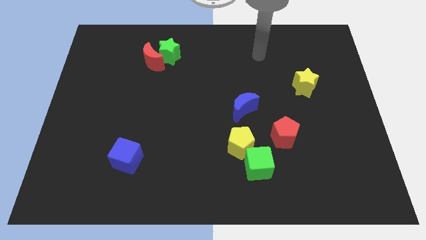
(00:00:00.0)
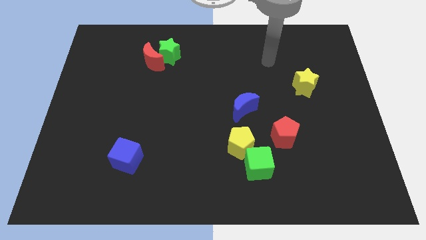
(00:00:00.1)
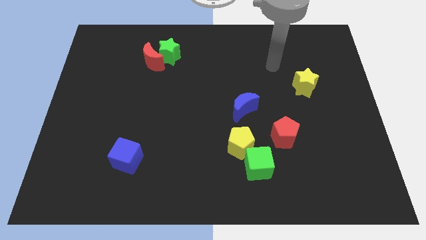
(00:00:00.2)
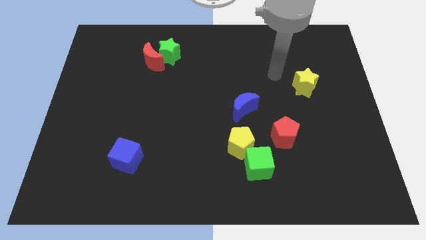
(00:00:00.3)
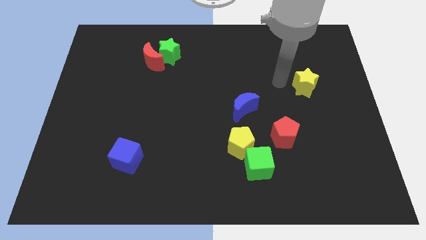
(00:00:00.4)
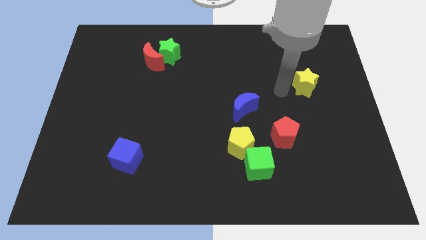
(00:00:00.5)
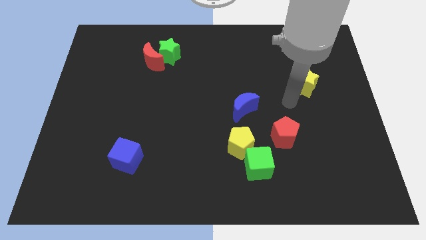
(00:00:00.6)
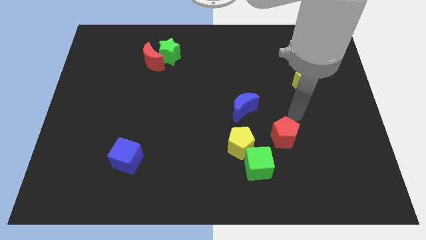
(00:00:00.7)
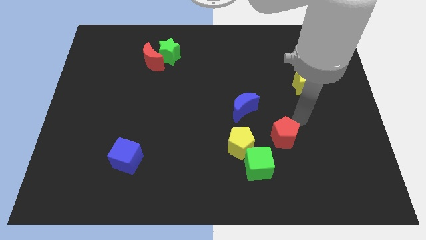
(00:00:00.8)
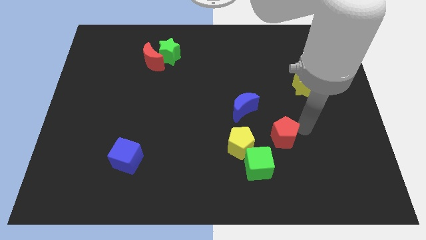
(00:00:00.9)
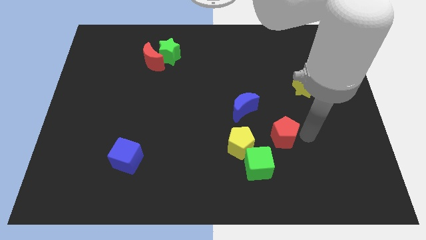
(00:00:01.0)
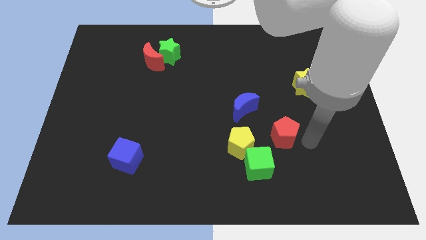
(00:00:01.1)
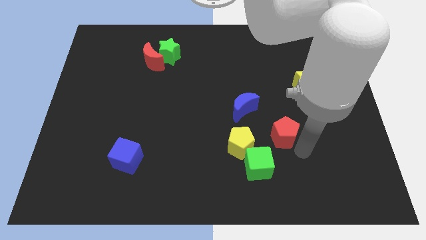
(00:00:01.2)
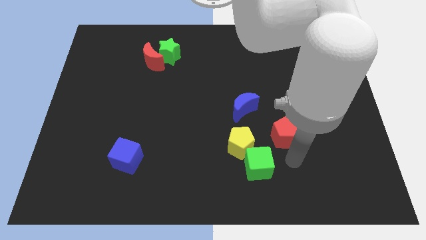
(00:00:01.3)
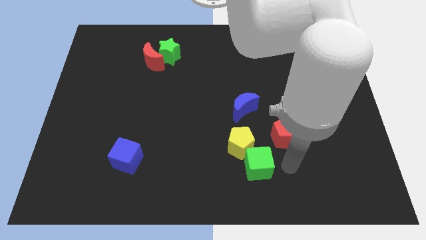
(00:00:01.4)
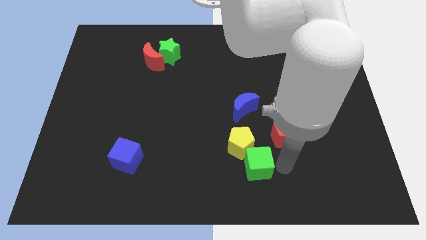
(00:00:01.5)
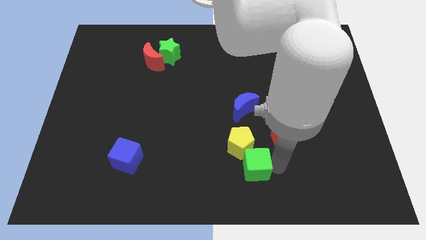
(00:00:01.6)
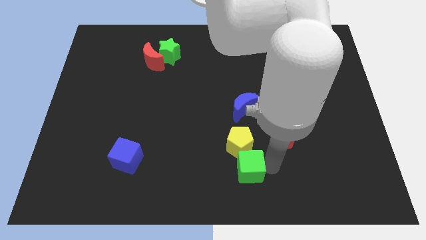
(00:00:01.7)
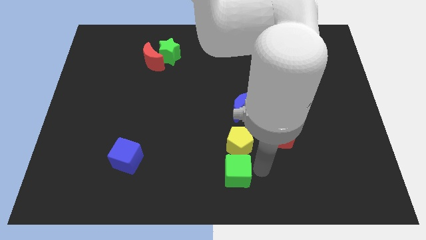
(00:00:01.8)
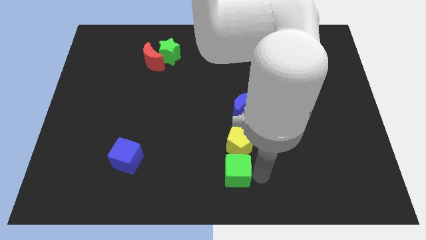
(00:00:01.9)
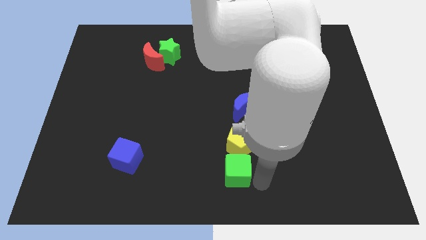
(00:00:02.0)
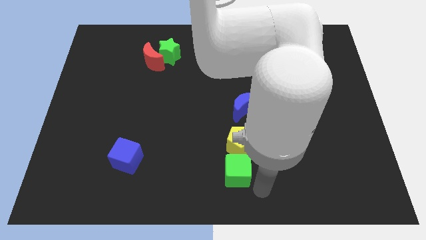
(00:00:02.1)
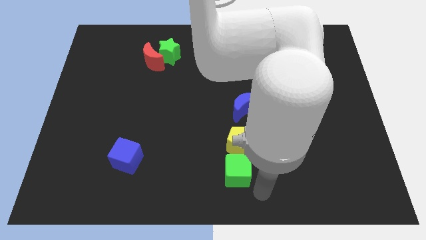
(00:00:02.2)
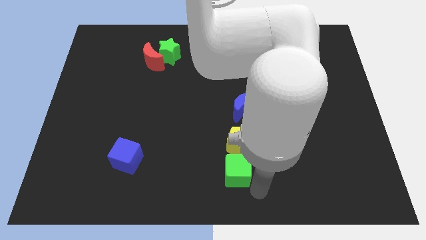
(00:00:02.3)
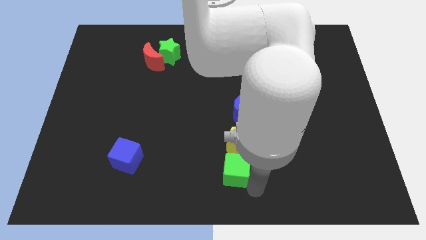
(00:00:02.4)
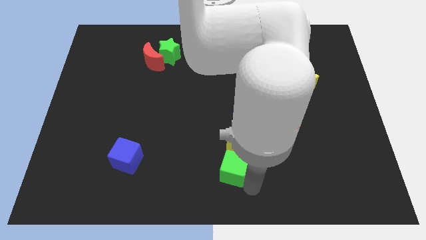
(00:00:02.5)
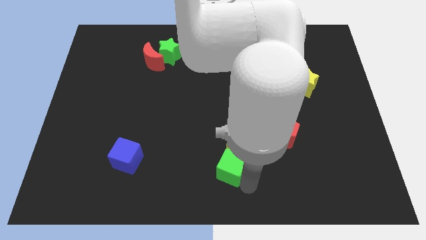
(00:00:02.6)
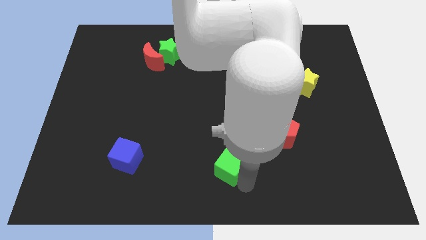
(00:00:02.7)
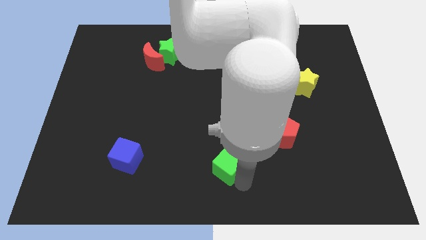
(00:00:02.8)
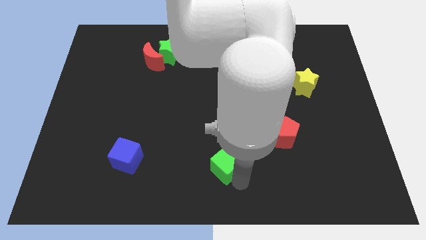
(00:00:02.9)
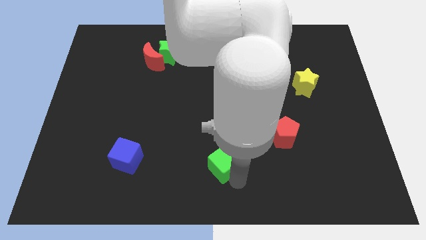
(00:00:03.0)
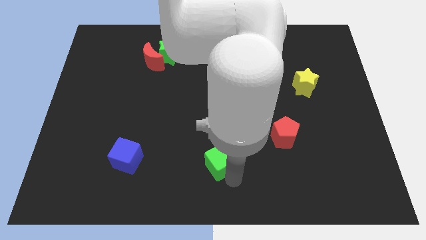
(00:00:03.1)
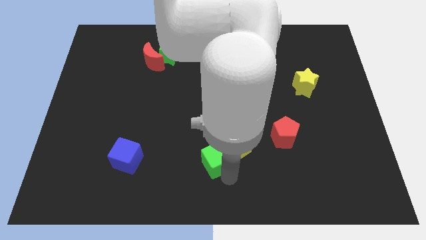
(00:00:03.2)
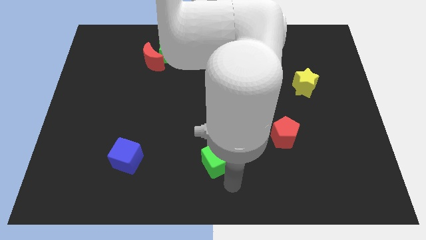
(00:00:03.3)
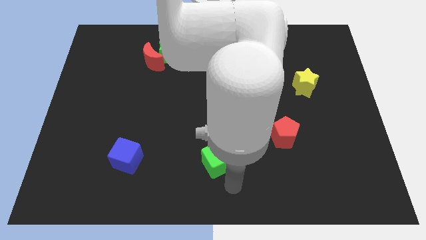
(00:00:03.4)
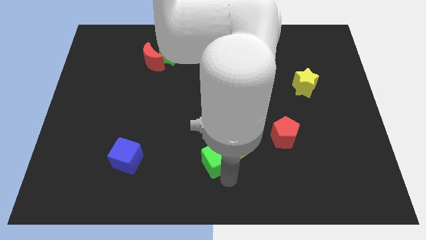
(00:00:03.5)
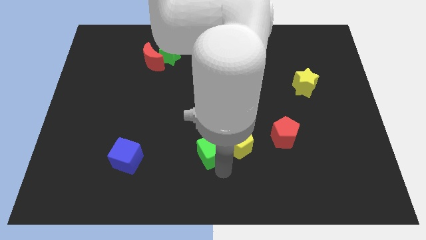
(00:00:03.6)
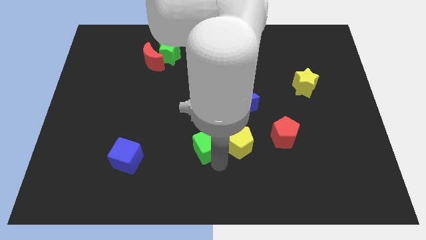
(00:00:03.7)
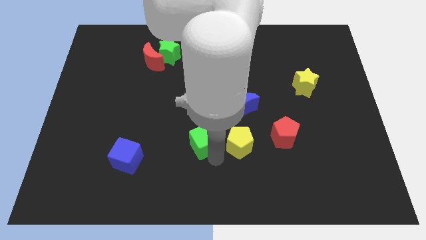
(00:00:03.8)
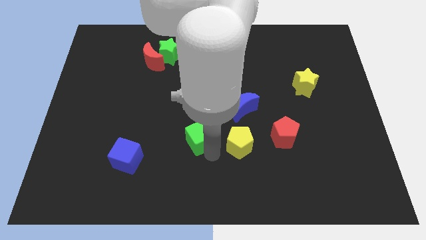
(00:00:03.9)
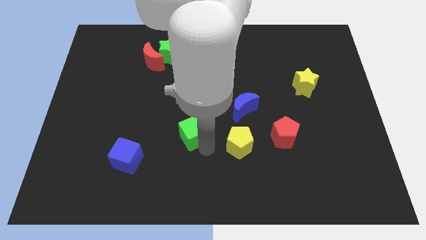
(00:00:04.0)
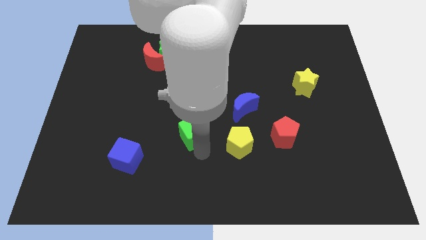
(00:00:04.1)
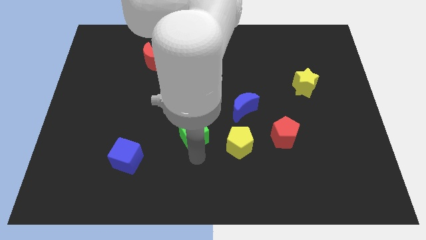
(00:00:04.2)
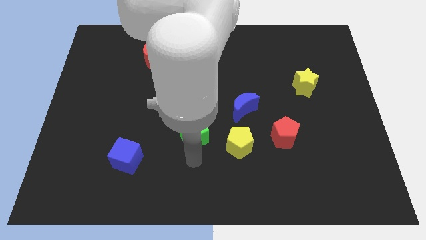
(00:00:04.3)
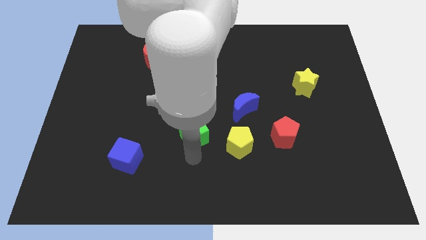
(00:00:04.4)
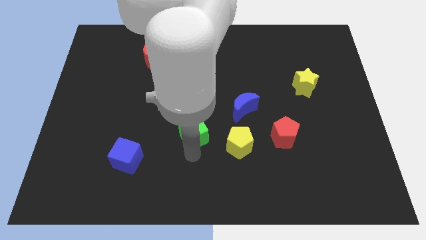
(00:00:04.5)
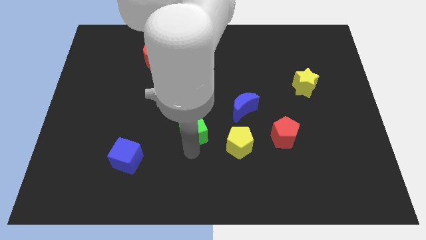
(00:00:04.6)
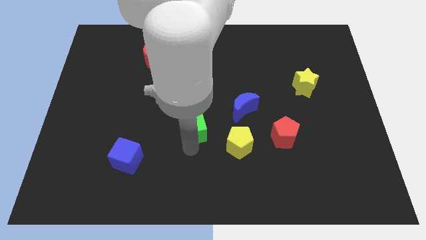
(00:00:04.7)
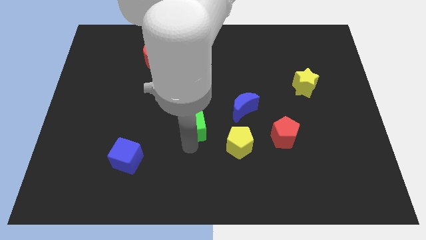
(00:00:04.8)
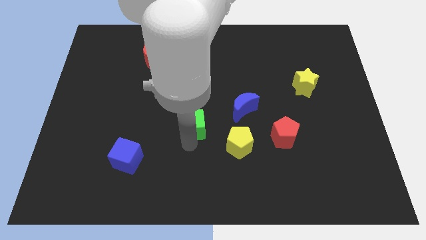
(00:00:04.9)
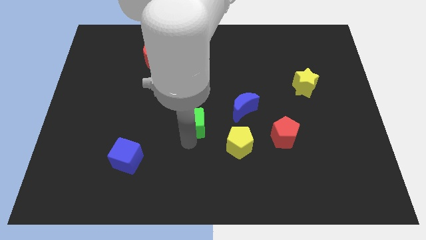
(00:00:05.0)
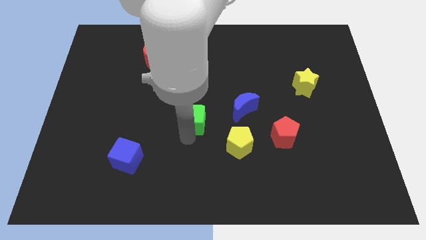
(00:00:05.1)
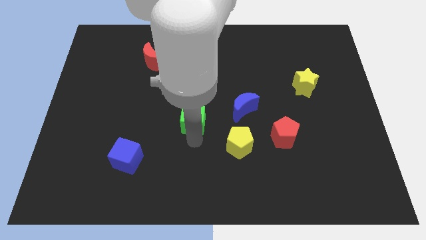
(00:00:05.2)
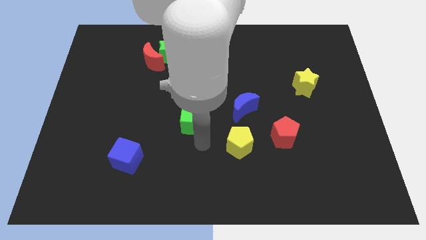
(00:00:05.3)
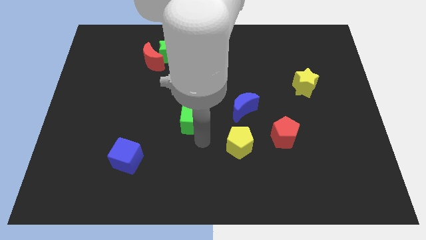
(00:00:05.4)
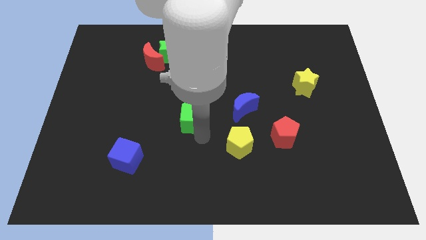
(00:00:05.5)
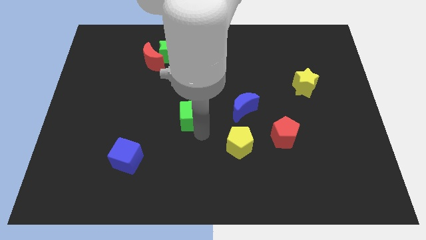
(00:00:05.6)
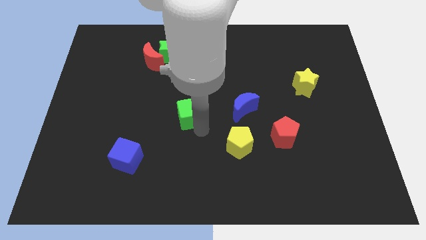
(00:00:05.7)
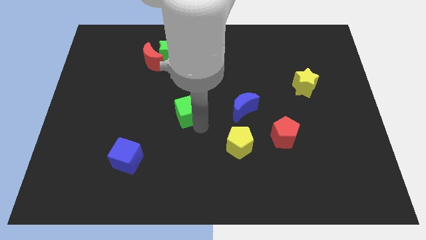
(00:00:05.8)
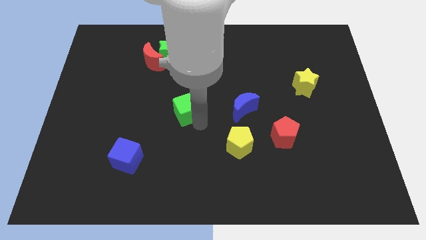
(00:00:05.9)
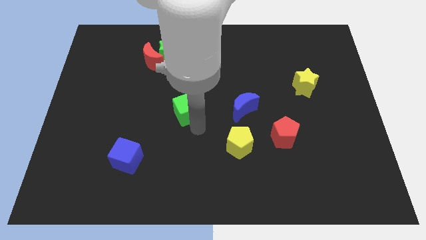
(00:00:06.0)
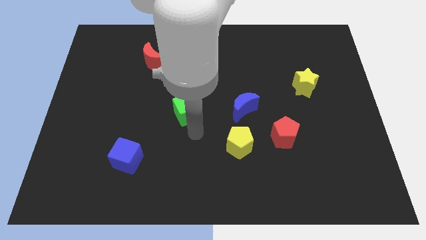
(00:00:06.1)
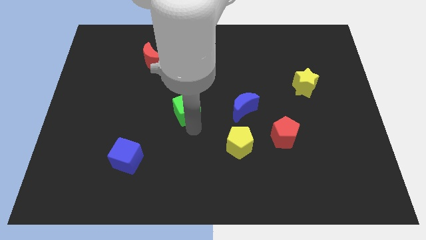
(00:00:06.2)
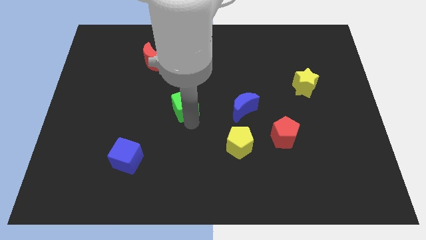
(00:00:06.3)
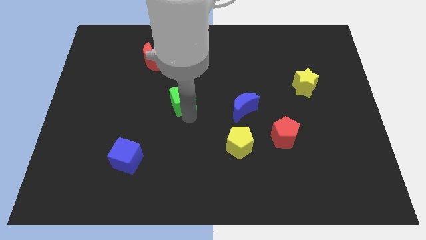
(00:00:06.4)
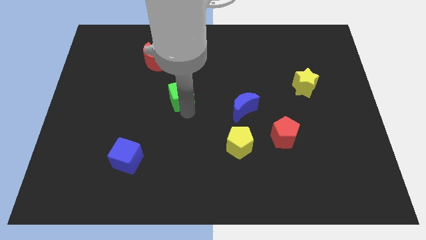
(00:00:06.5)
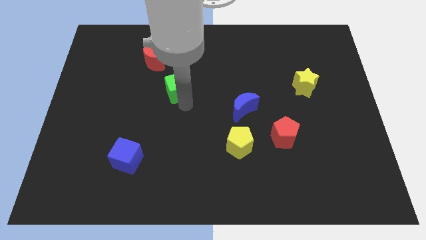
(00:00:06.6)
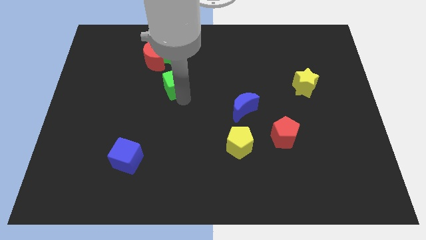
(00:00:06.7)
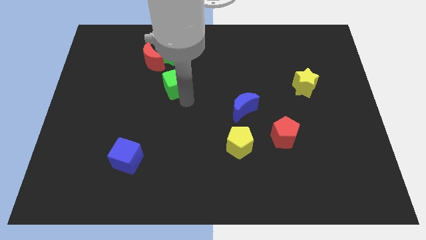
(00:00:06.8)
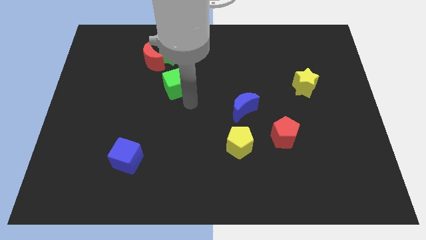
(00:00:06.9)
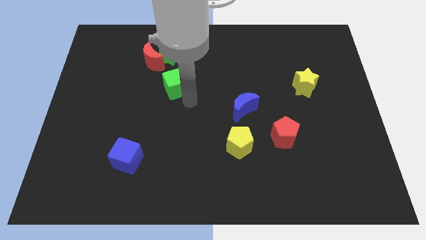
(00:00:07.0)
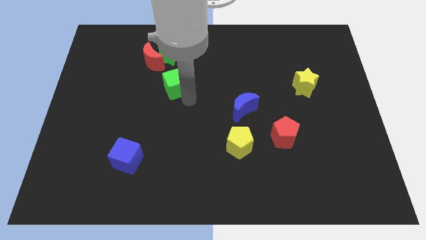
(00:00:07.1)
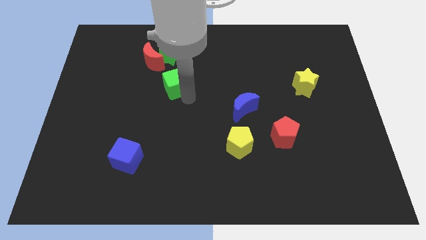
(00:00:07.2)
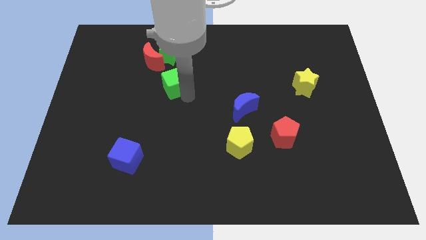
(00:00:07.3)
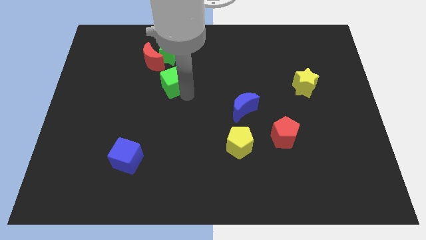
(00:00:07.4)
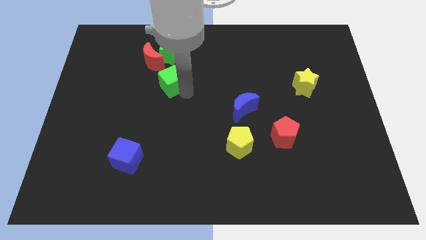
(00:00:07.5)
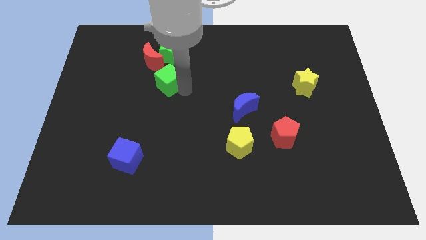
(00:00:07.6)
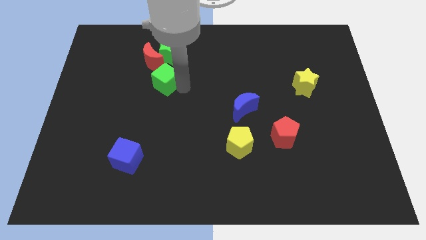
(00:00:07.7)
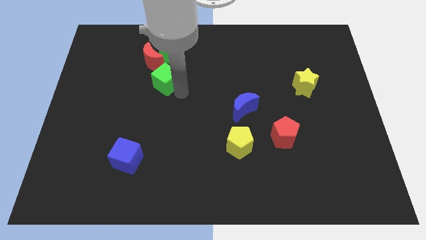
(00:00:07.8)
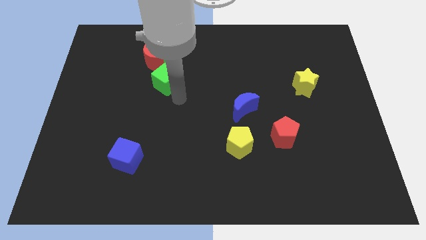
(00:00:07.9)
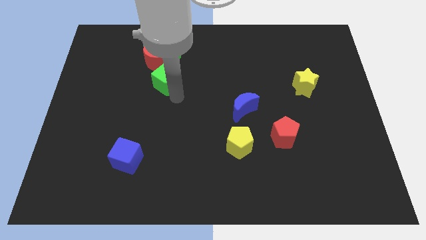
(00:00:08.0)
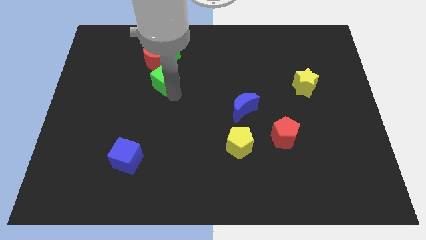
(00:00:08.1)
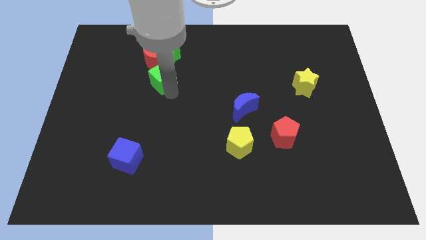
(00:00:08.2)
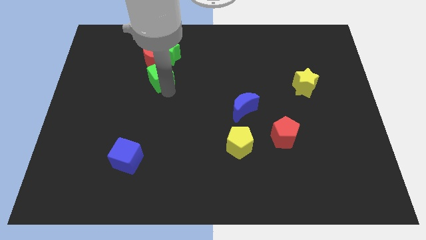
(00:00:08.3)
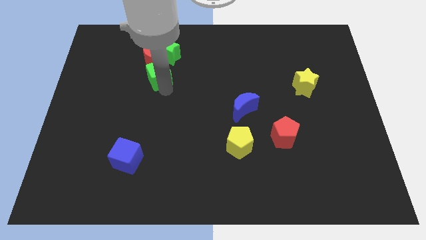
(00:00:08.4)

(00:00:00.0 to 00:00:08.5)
push the green cube close to the red moon
